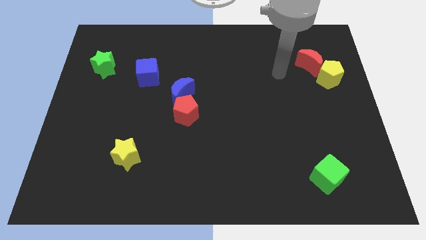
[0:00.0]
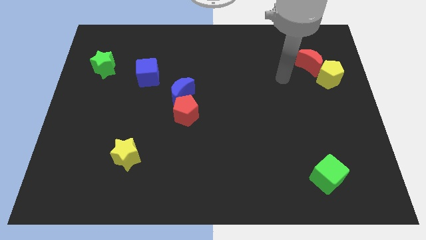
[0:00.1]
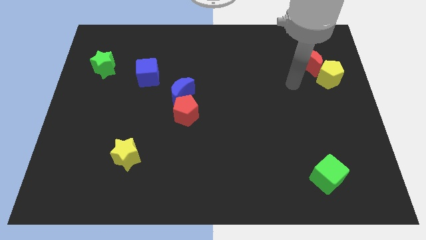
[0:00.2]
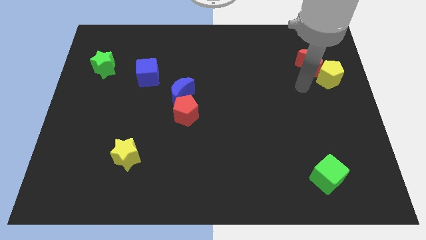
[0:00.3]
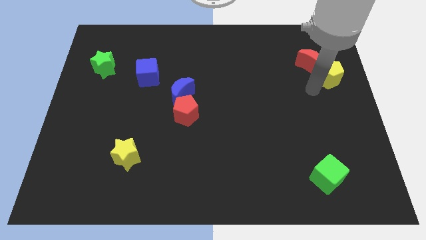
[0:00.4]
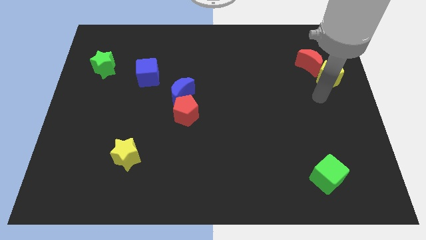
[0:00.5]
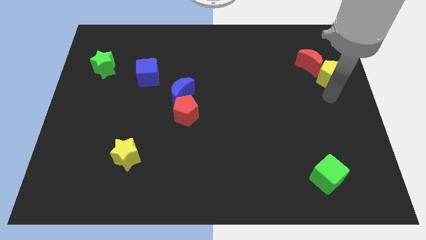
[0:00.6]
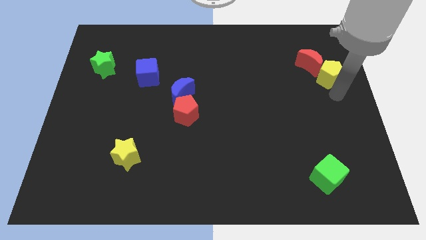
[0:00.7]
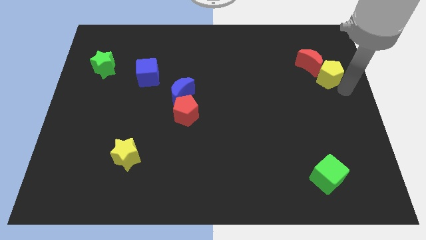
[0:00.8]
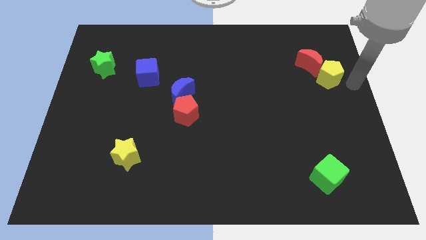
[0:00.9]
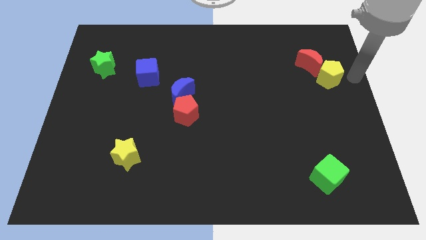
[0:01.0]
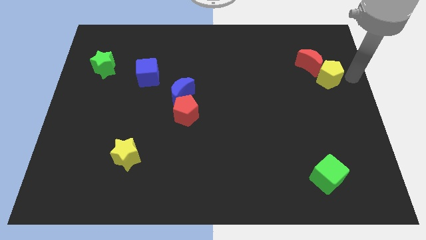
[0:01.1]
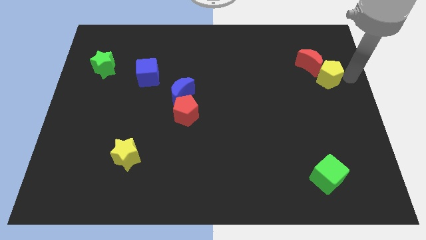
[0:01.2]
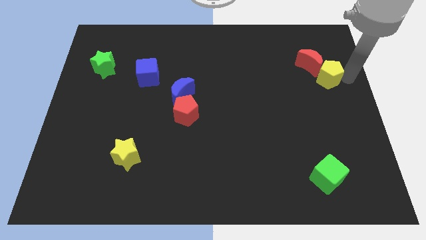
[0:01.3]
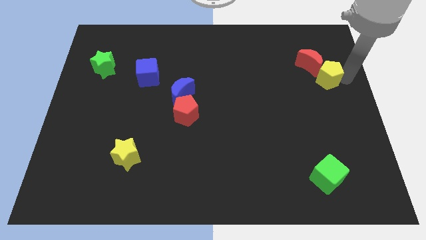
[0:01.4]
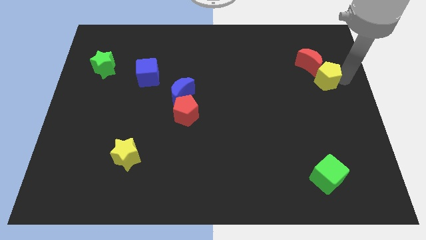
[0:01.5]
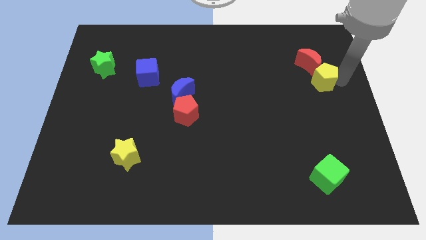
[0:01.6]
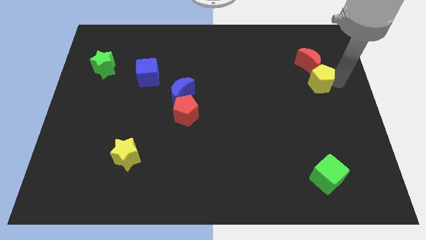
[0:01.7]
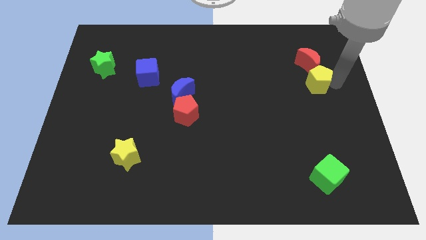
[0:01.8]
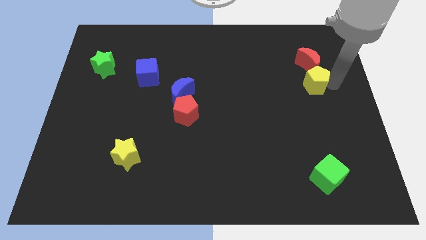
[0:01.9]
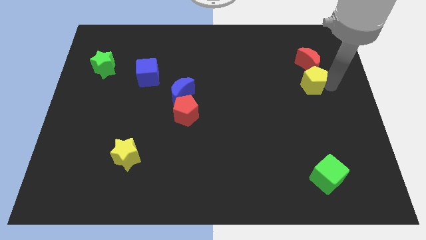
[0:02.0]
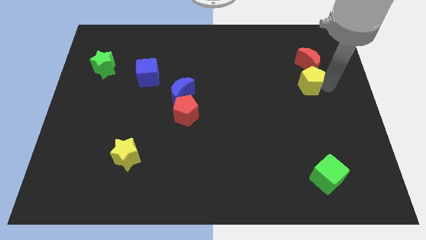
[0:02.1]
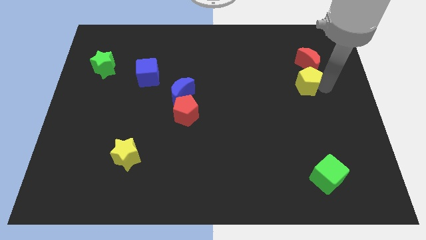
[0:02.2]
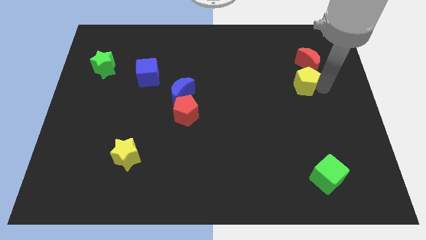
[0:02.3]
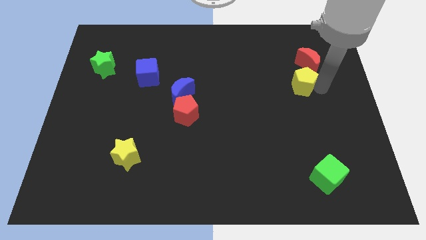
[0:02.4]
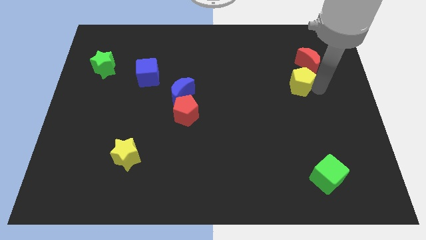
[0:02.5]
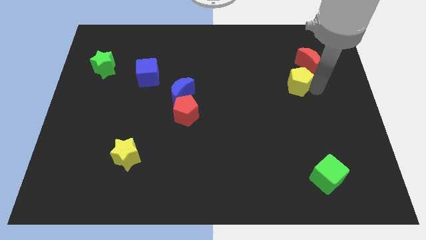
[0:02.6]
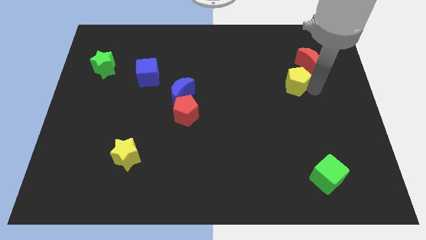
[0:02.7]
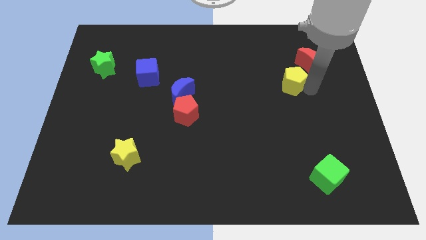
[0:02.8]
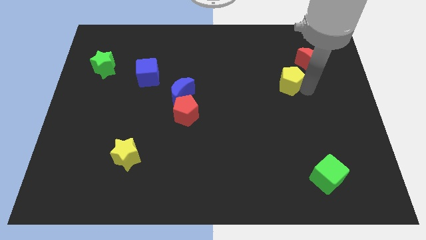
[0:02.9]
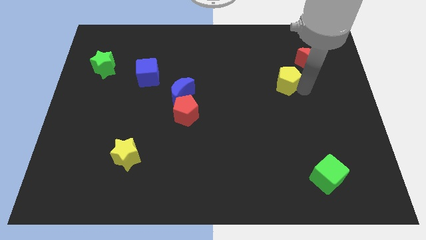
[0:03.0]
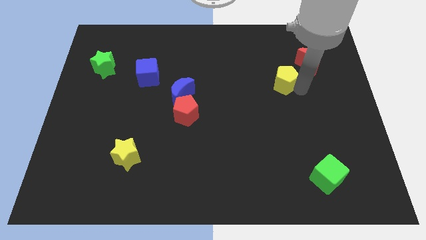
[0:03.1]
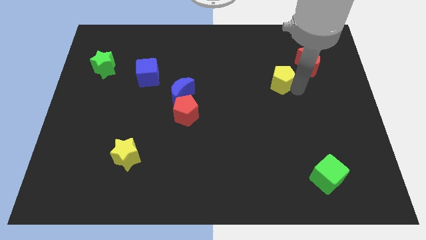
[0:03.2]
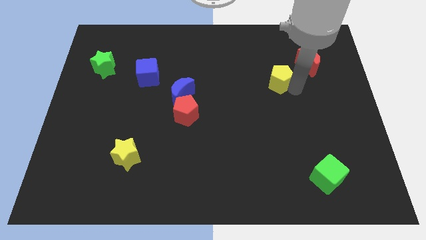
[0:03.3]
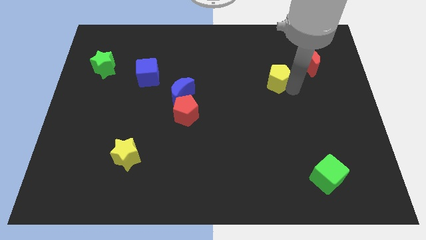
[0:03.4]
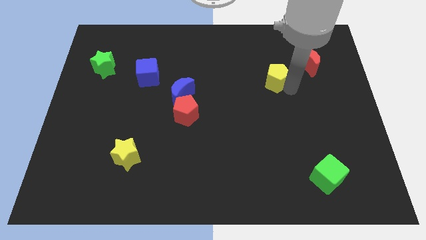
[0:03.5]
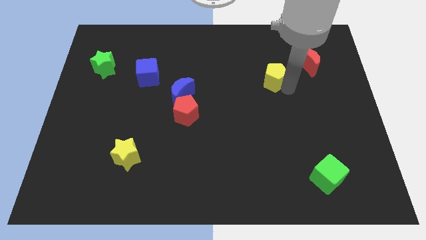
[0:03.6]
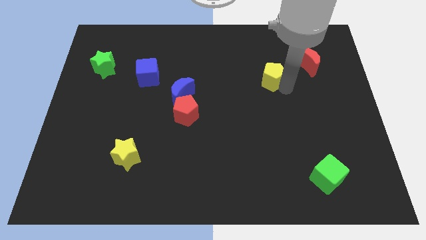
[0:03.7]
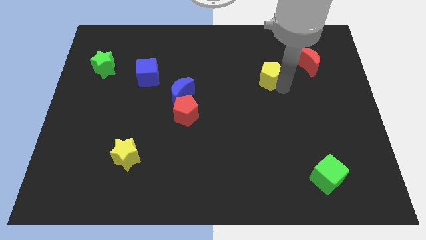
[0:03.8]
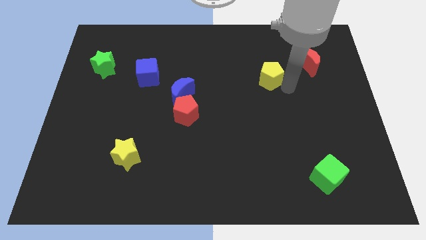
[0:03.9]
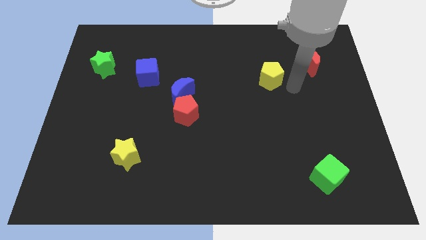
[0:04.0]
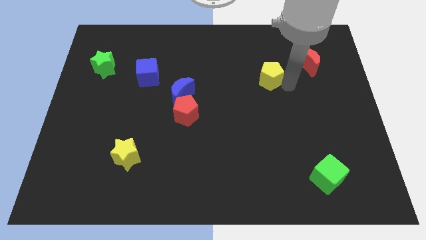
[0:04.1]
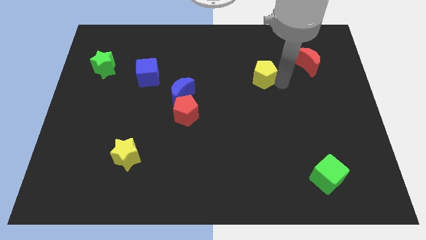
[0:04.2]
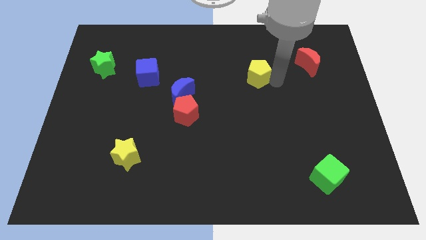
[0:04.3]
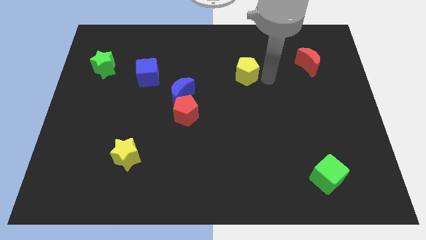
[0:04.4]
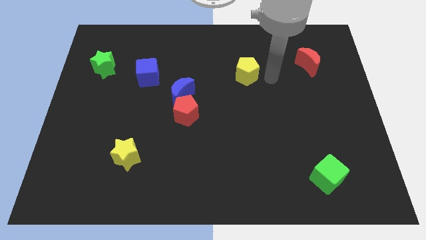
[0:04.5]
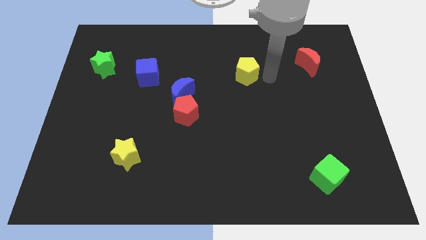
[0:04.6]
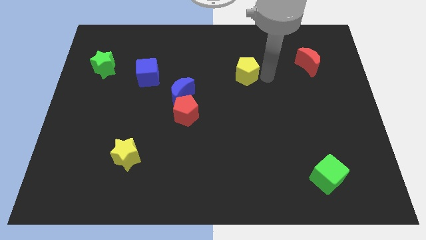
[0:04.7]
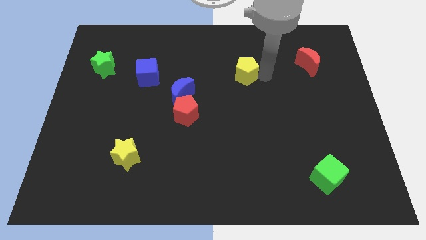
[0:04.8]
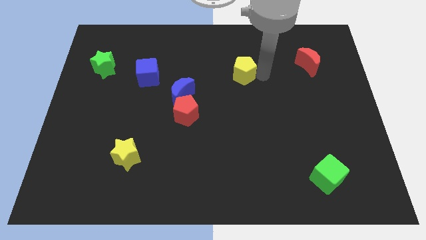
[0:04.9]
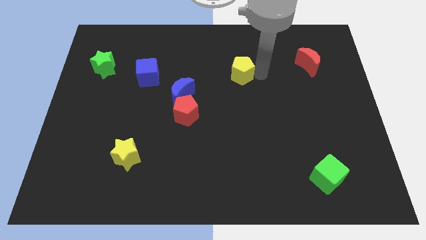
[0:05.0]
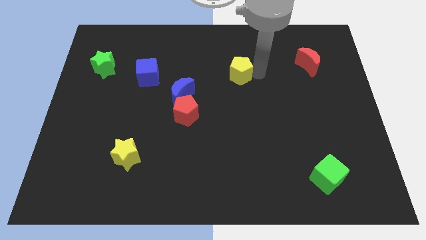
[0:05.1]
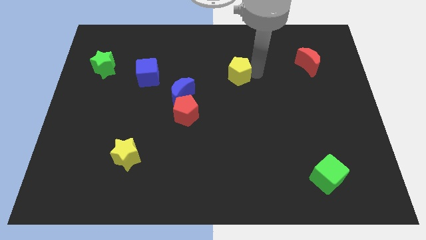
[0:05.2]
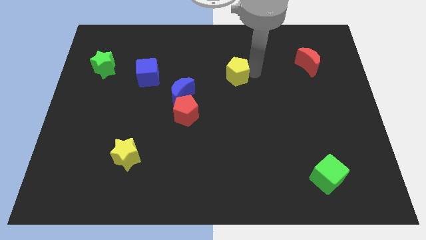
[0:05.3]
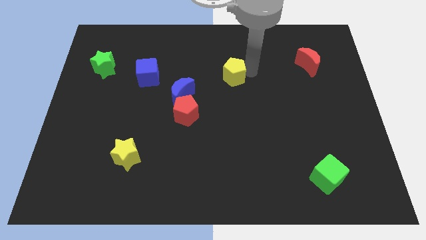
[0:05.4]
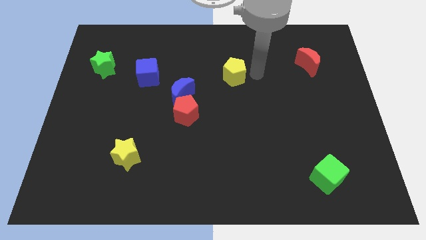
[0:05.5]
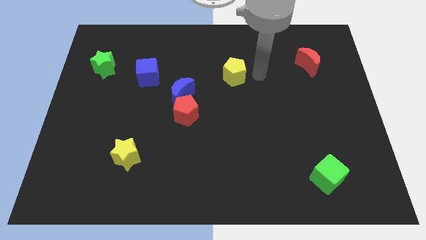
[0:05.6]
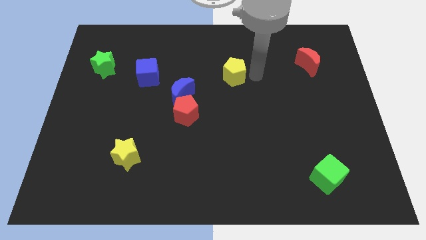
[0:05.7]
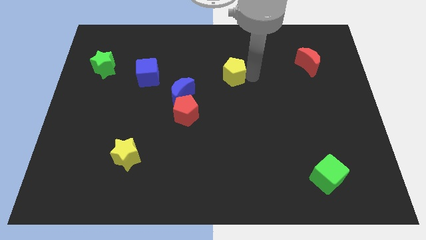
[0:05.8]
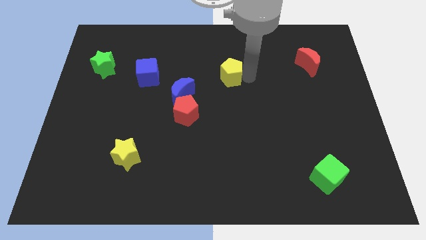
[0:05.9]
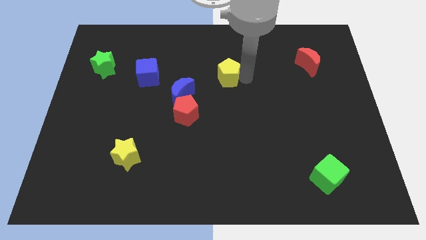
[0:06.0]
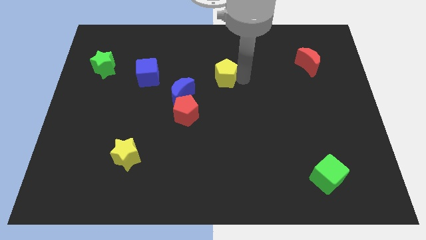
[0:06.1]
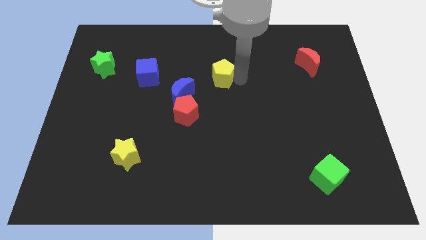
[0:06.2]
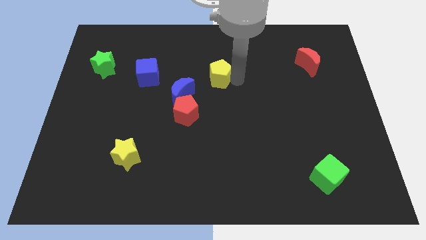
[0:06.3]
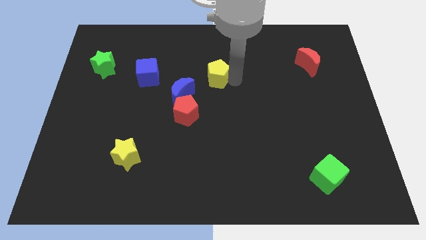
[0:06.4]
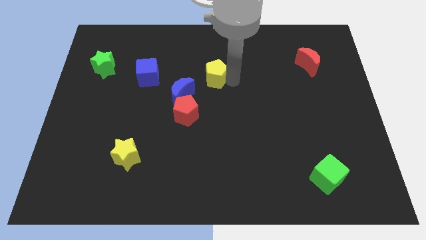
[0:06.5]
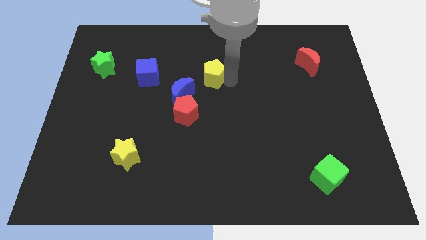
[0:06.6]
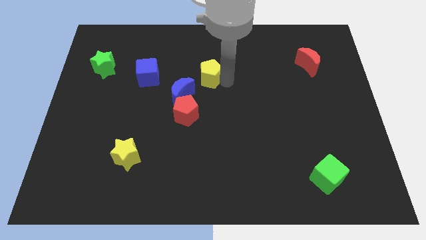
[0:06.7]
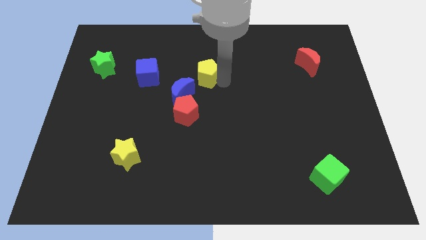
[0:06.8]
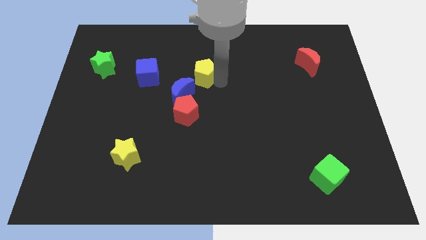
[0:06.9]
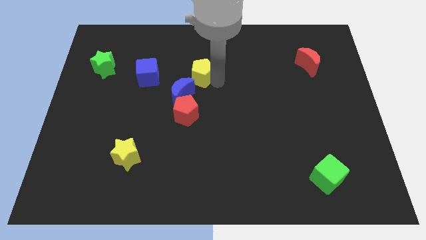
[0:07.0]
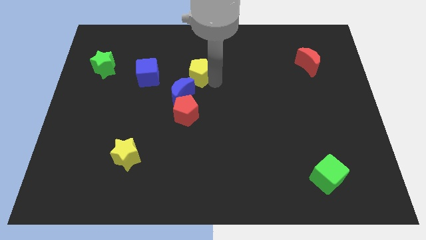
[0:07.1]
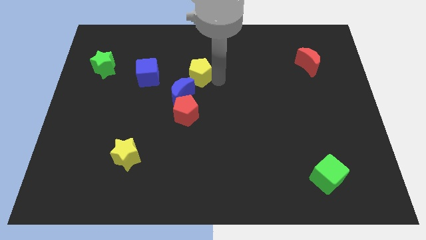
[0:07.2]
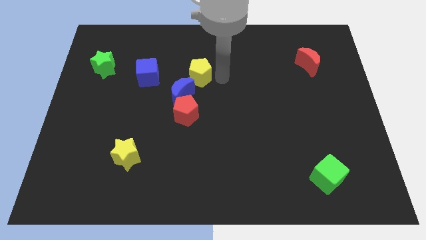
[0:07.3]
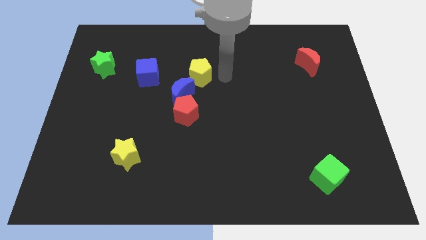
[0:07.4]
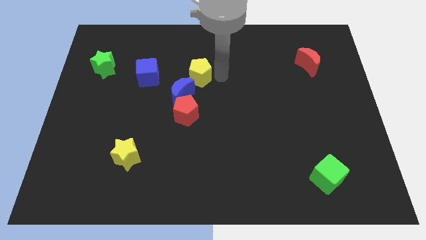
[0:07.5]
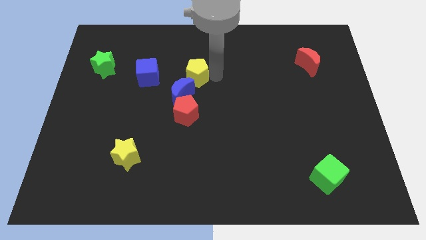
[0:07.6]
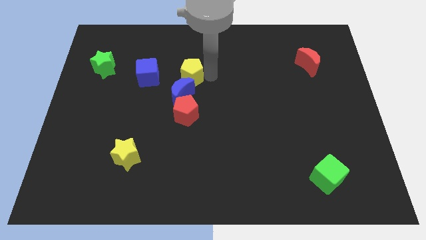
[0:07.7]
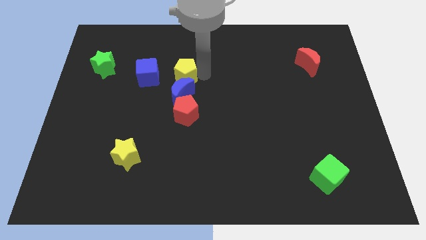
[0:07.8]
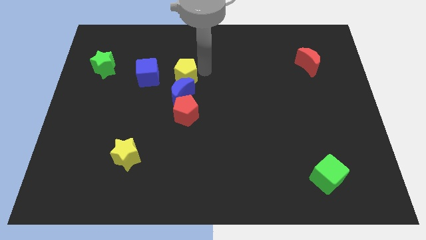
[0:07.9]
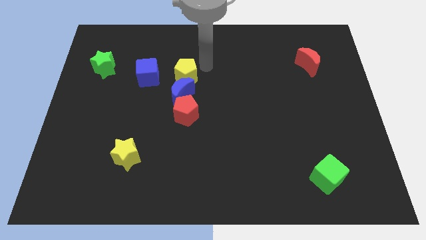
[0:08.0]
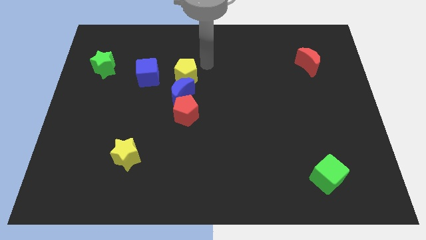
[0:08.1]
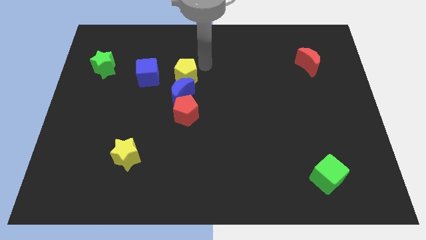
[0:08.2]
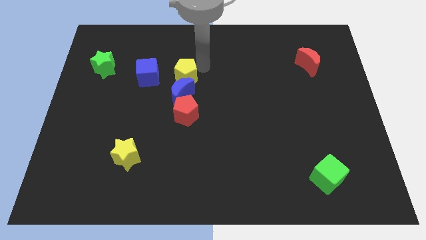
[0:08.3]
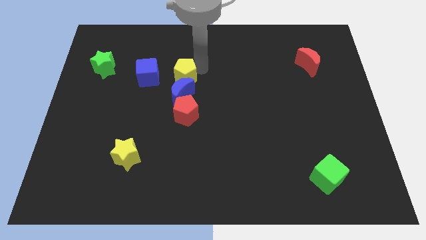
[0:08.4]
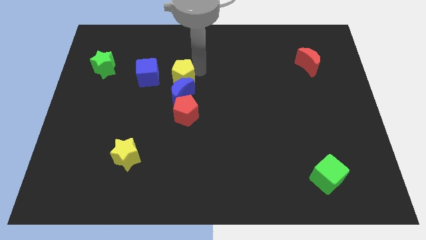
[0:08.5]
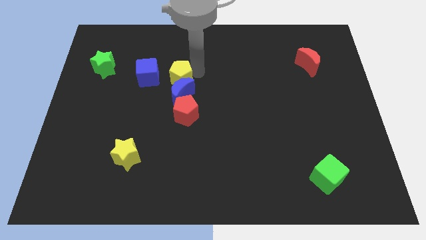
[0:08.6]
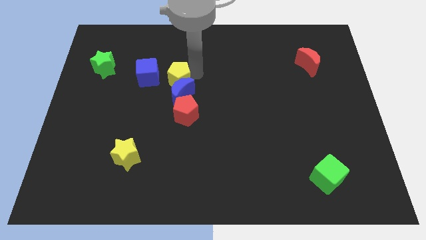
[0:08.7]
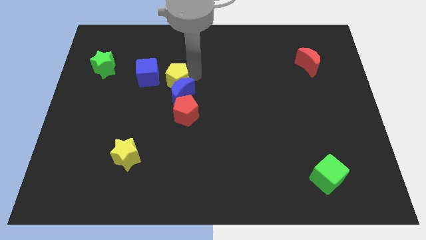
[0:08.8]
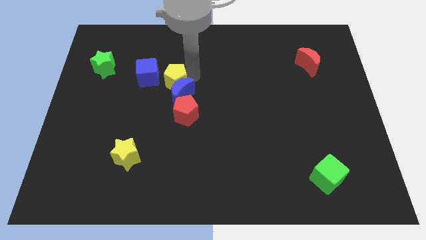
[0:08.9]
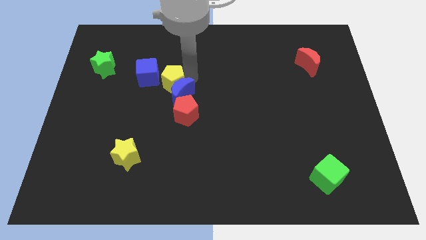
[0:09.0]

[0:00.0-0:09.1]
push the yellow pentagon diagonally up and to the left of the red pentagon
